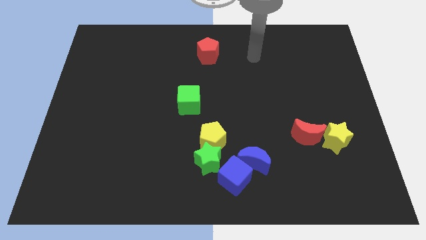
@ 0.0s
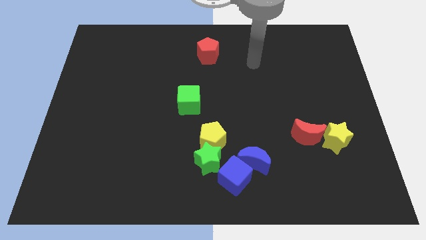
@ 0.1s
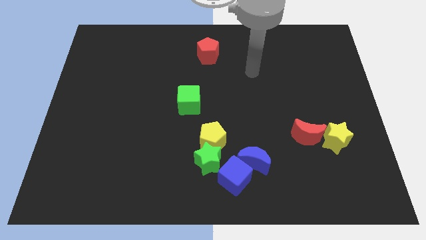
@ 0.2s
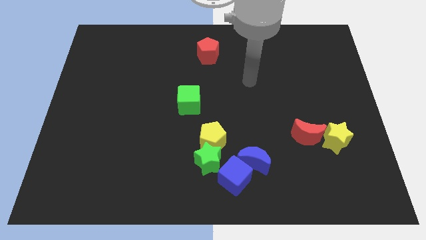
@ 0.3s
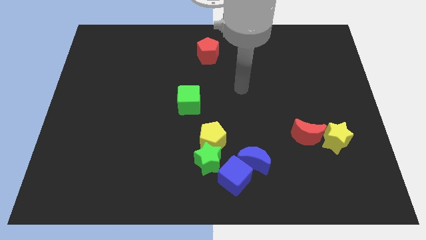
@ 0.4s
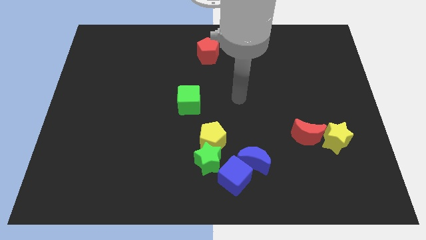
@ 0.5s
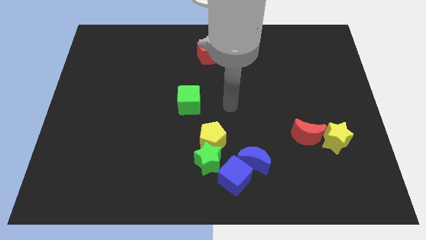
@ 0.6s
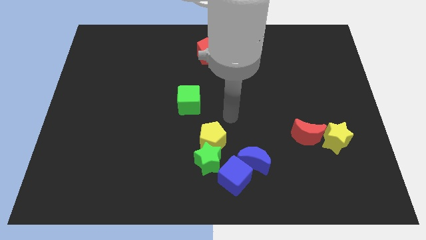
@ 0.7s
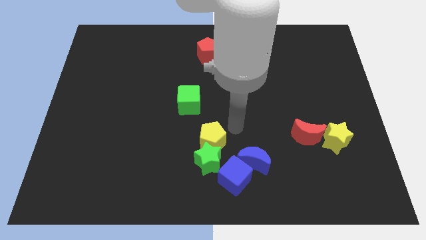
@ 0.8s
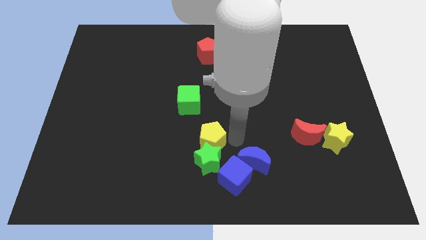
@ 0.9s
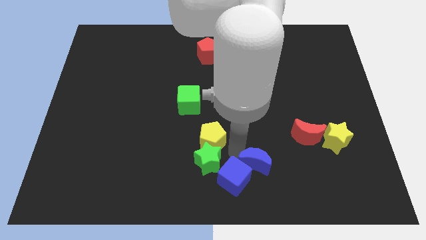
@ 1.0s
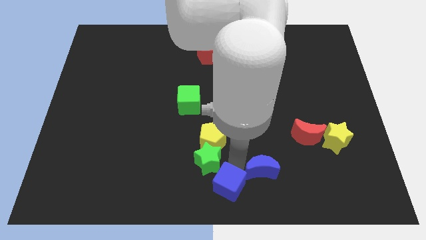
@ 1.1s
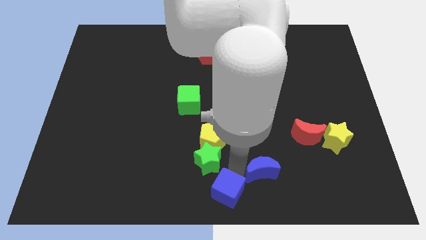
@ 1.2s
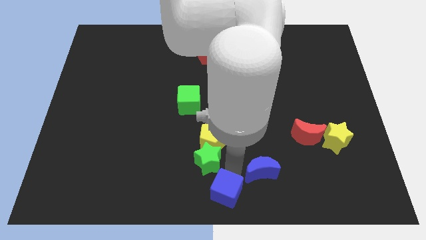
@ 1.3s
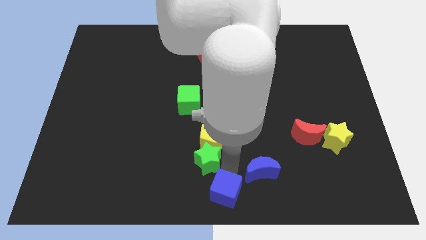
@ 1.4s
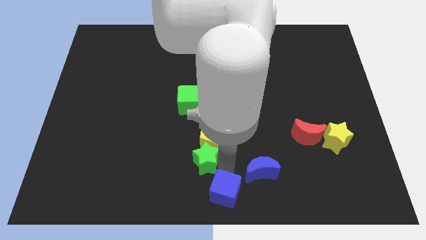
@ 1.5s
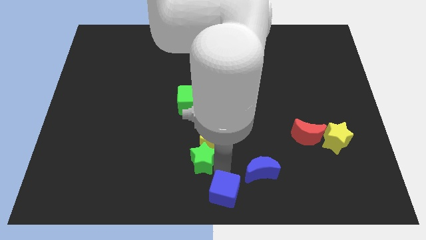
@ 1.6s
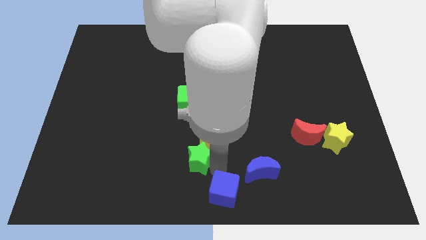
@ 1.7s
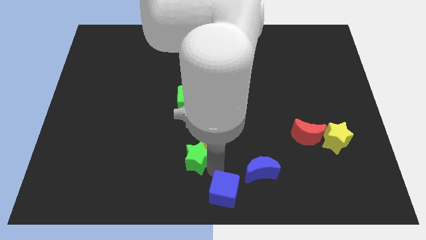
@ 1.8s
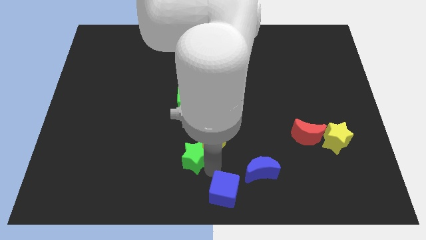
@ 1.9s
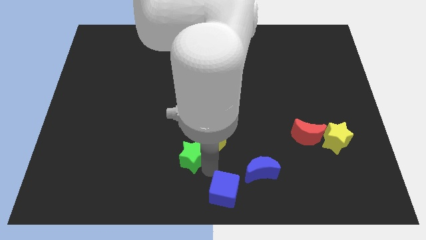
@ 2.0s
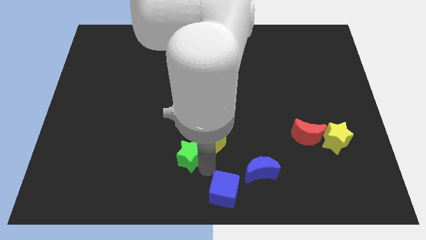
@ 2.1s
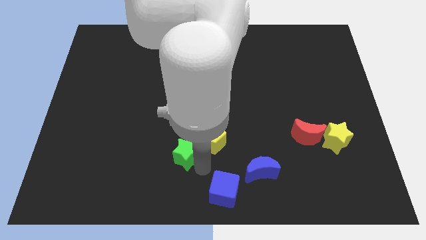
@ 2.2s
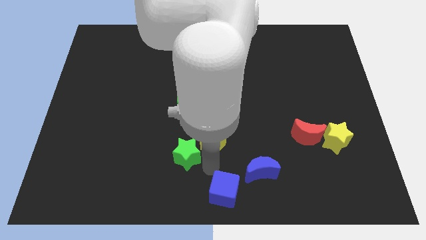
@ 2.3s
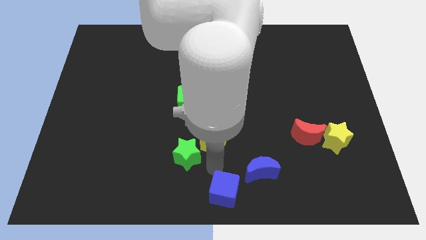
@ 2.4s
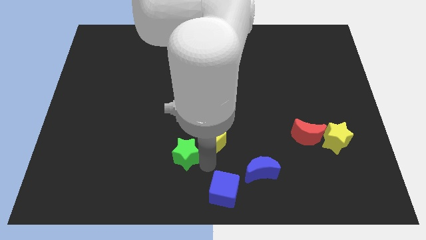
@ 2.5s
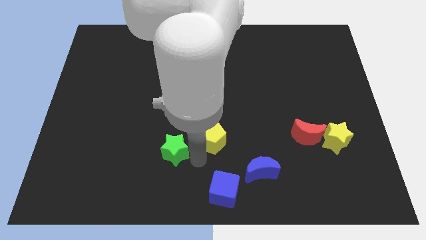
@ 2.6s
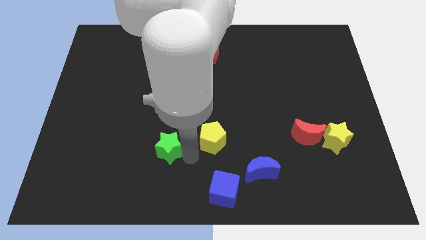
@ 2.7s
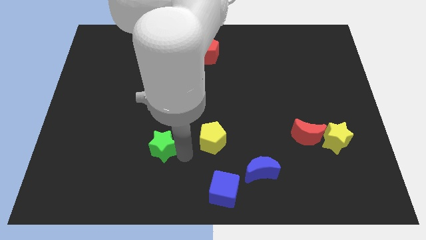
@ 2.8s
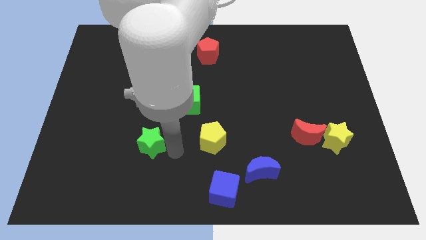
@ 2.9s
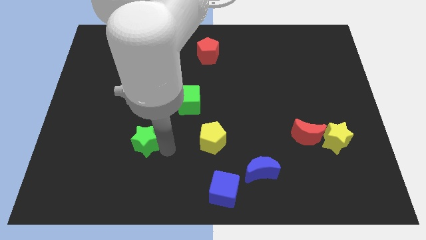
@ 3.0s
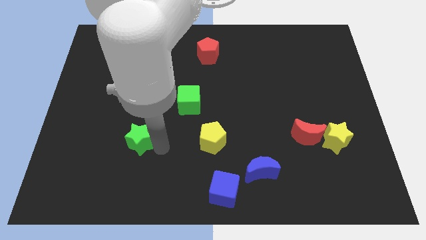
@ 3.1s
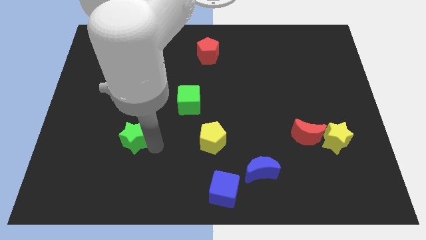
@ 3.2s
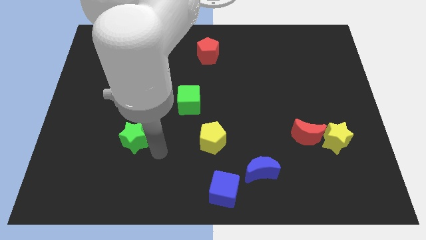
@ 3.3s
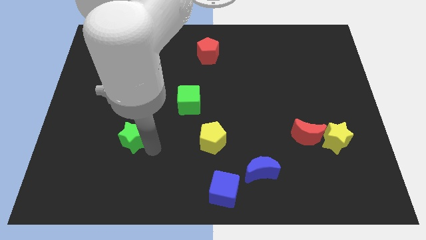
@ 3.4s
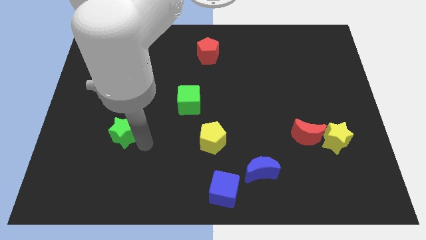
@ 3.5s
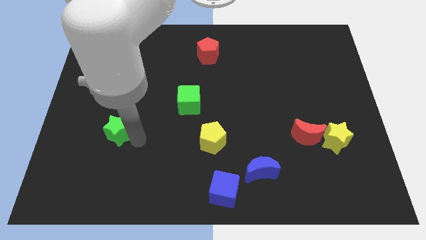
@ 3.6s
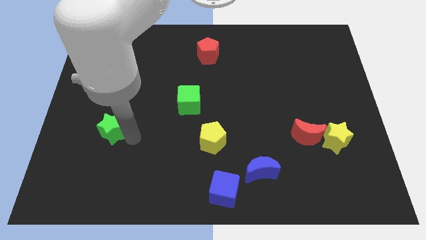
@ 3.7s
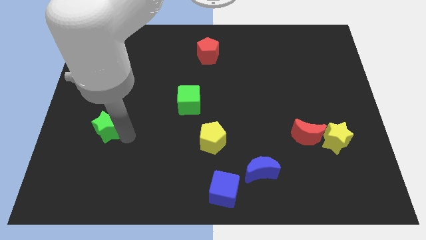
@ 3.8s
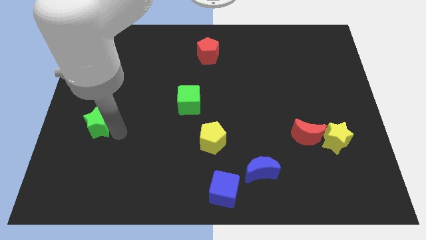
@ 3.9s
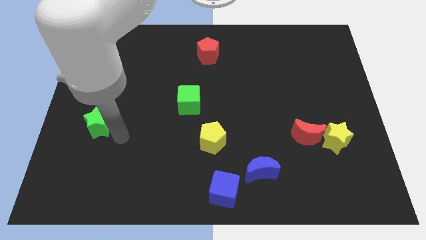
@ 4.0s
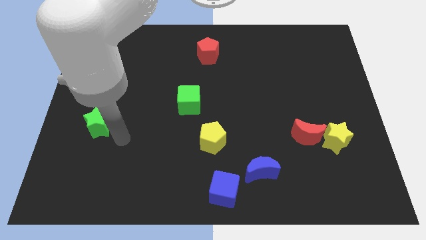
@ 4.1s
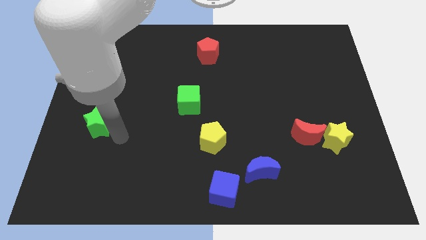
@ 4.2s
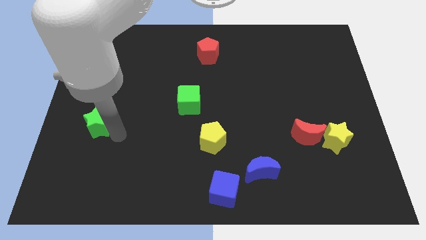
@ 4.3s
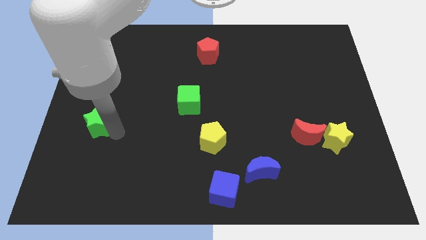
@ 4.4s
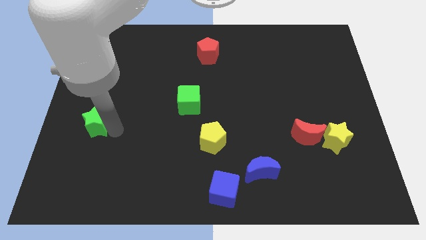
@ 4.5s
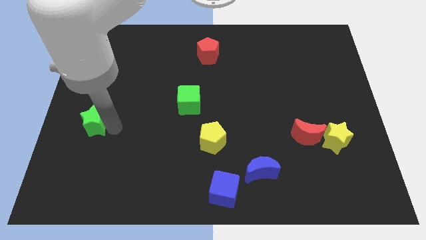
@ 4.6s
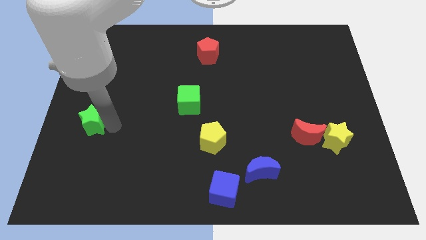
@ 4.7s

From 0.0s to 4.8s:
slide the green star to the left side

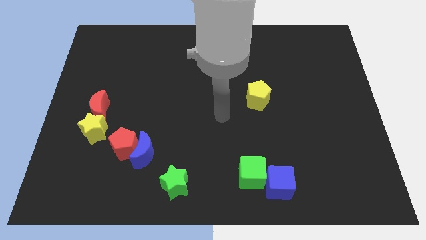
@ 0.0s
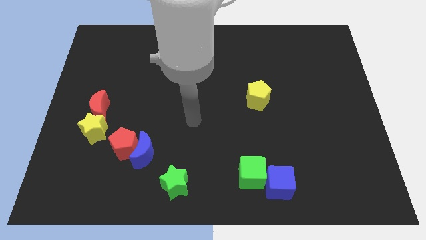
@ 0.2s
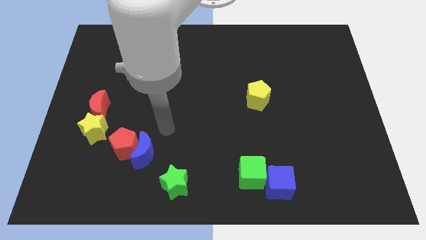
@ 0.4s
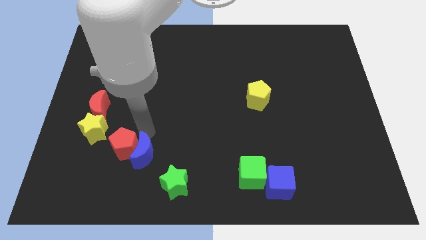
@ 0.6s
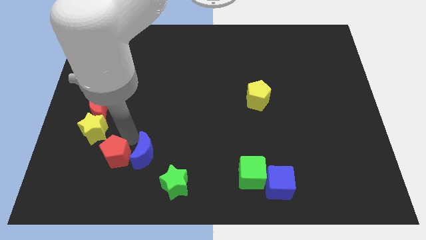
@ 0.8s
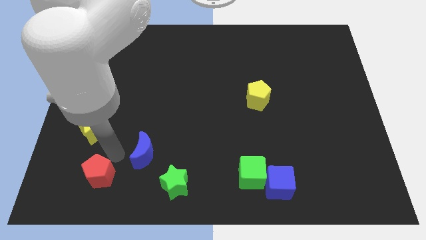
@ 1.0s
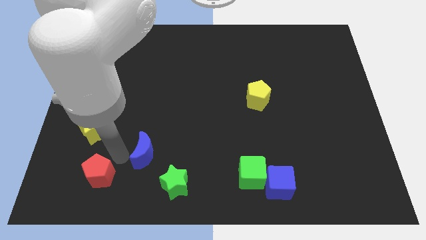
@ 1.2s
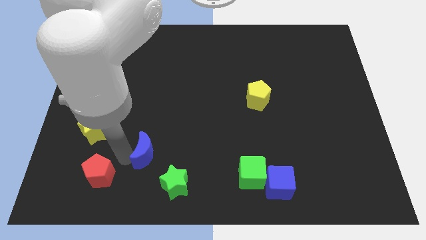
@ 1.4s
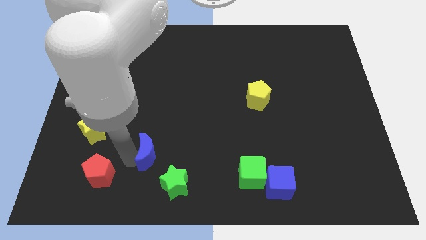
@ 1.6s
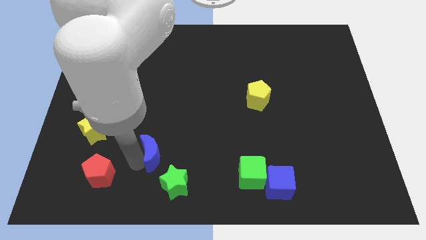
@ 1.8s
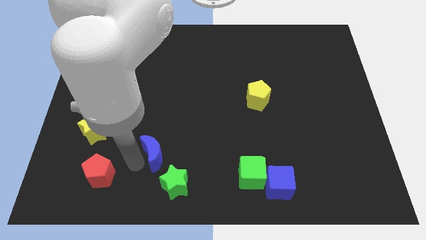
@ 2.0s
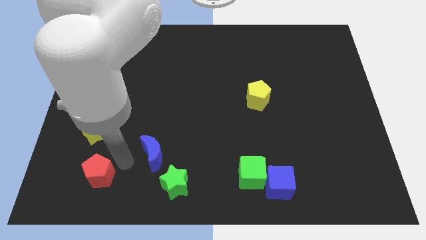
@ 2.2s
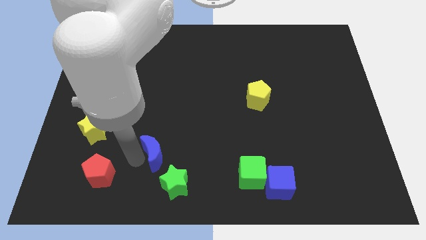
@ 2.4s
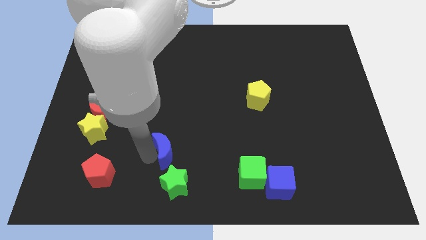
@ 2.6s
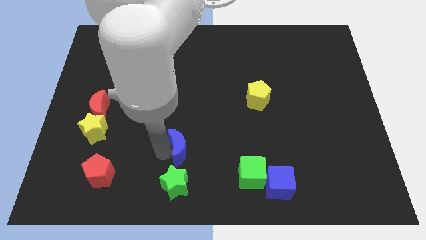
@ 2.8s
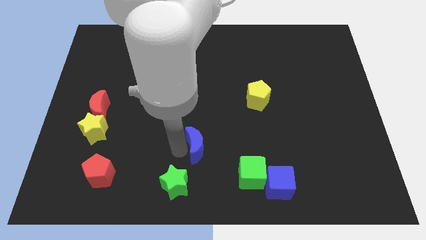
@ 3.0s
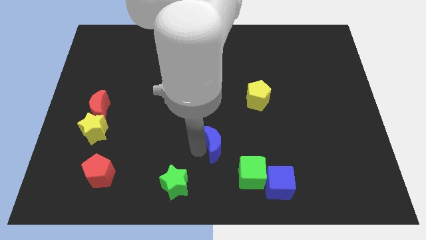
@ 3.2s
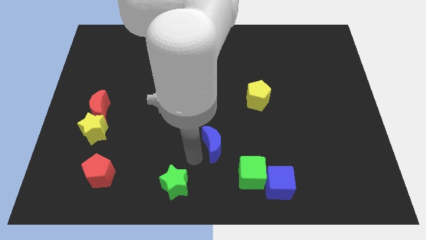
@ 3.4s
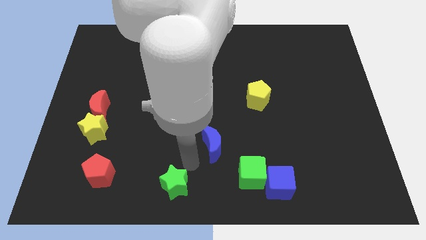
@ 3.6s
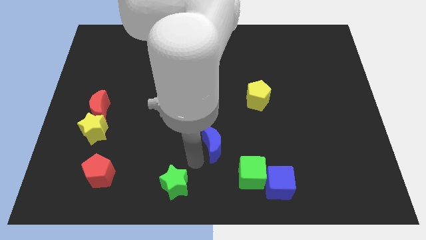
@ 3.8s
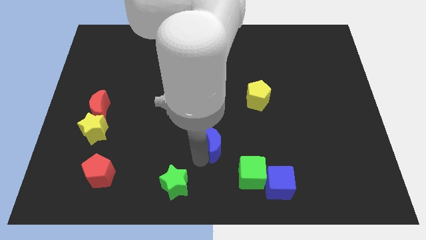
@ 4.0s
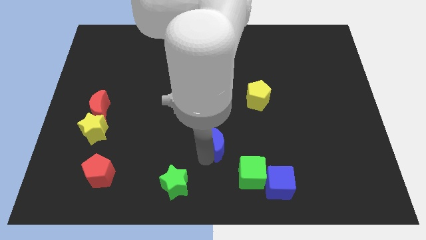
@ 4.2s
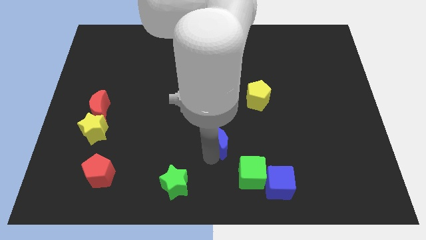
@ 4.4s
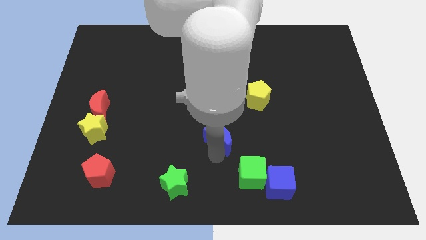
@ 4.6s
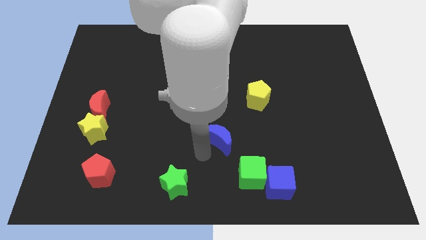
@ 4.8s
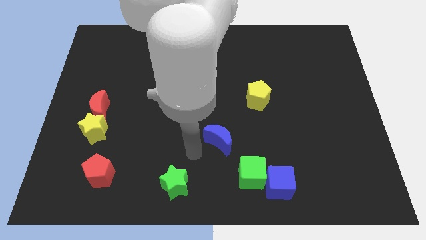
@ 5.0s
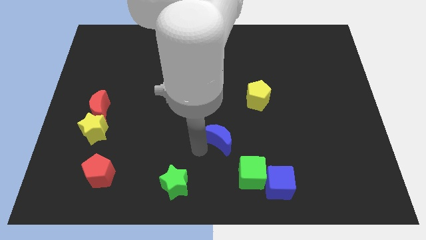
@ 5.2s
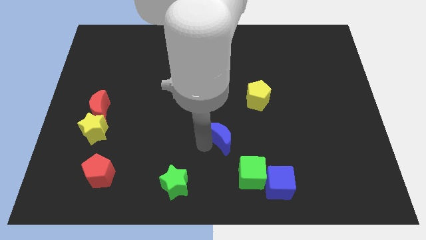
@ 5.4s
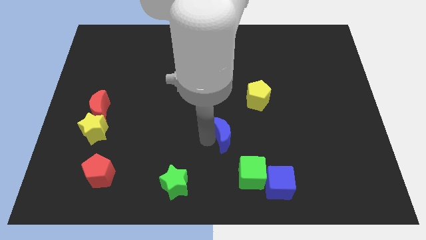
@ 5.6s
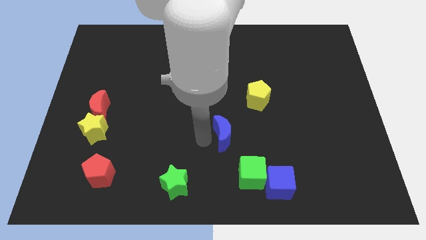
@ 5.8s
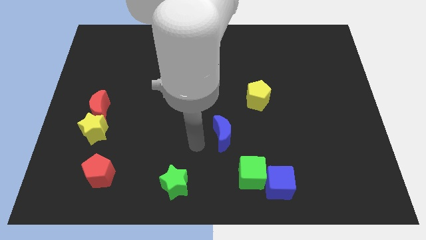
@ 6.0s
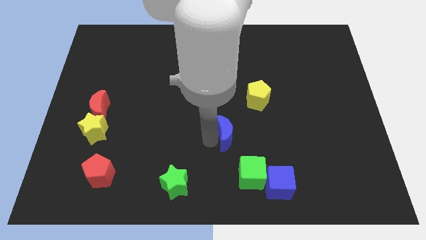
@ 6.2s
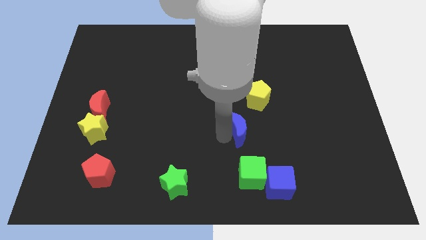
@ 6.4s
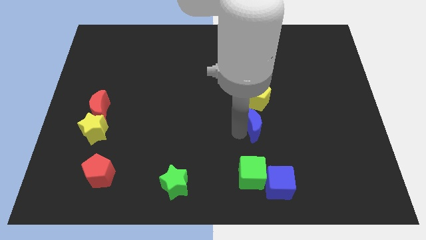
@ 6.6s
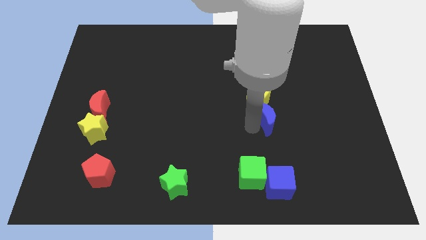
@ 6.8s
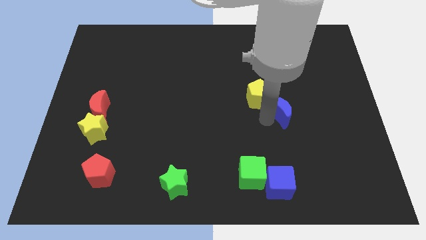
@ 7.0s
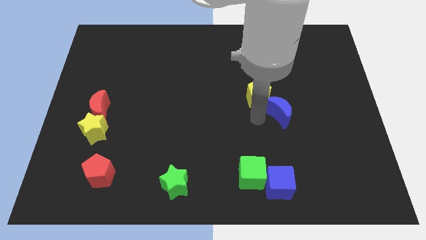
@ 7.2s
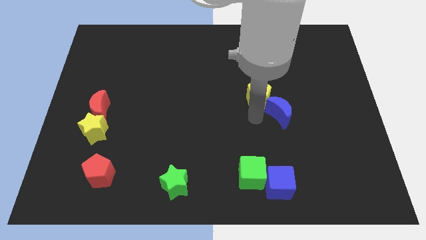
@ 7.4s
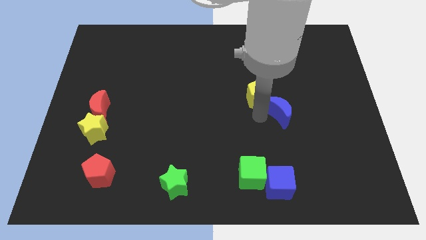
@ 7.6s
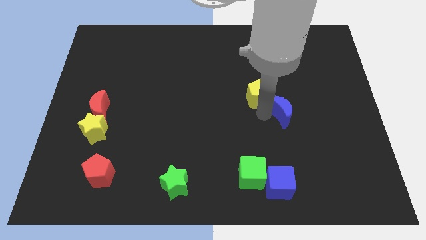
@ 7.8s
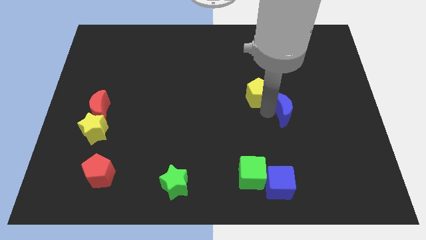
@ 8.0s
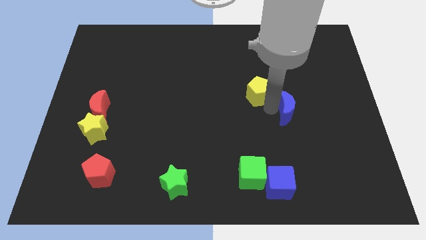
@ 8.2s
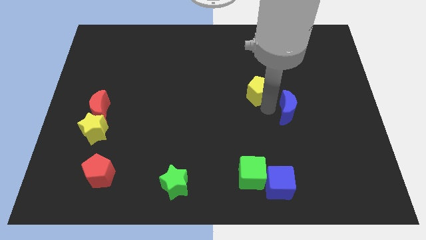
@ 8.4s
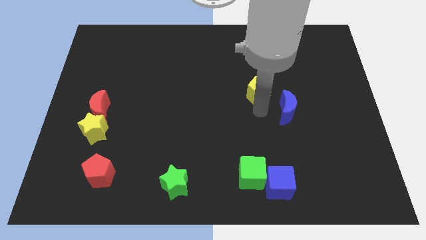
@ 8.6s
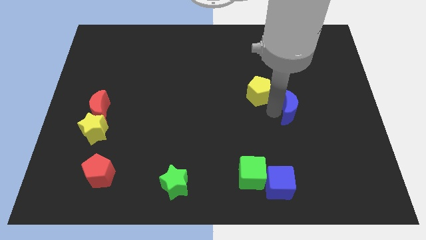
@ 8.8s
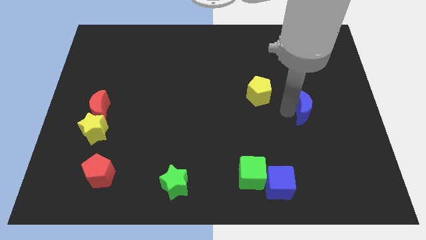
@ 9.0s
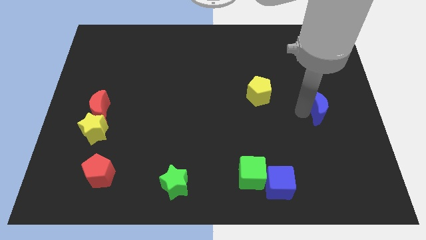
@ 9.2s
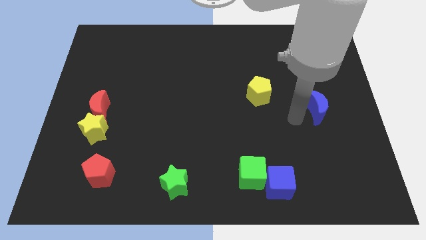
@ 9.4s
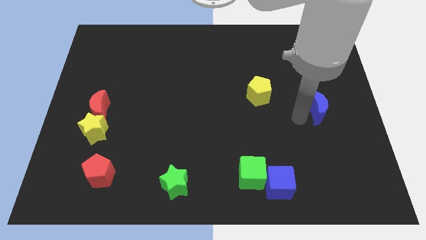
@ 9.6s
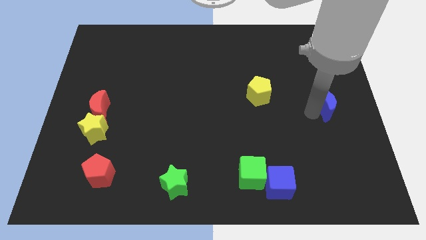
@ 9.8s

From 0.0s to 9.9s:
move the blue moon to the right side of the board
